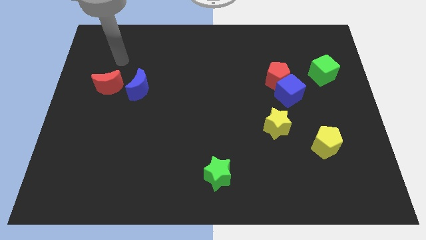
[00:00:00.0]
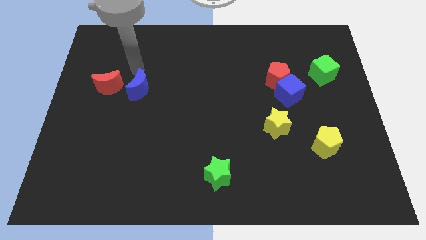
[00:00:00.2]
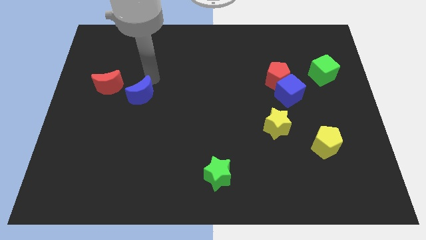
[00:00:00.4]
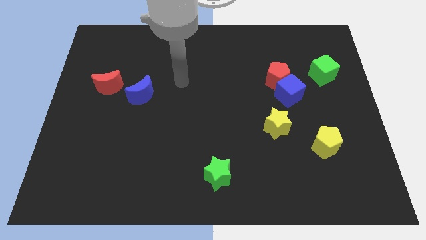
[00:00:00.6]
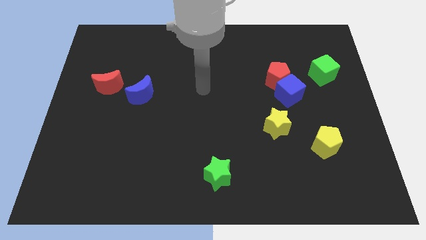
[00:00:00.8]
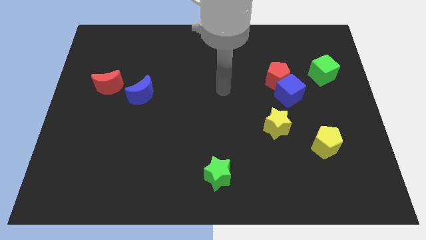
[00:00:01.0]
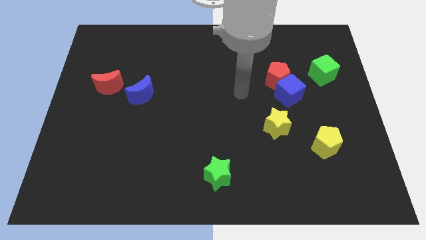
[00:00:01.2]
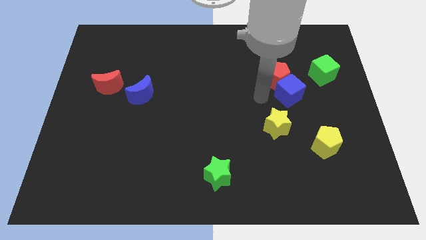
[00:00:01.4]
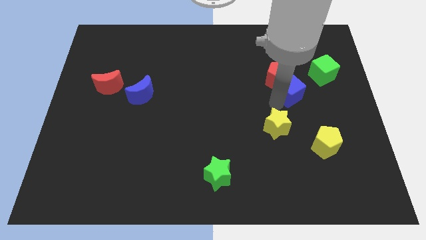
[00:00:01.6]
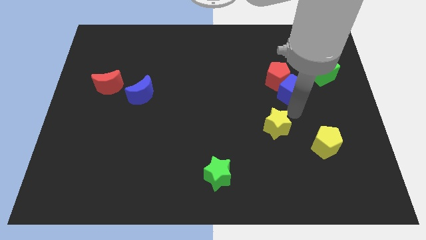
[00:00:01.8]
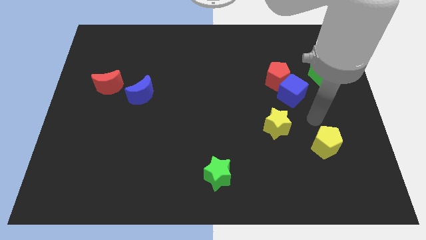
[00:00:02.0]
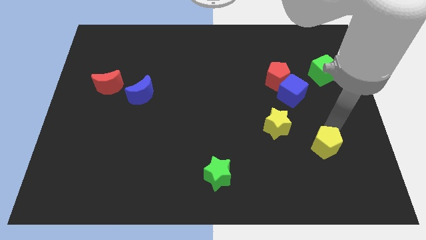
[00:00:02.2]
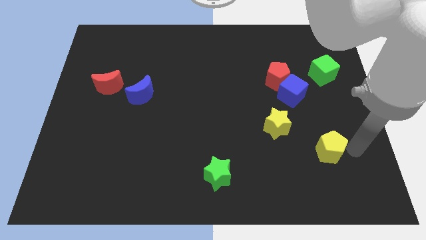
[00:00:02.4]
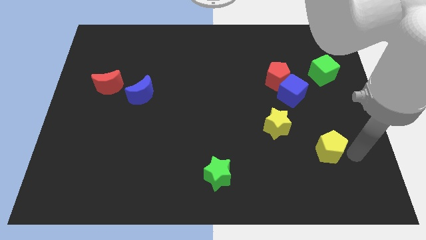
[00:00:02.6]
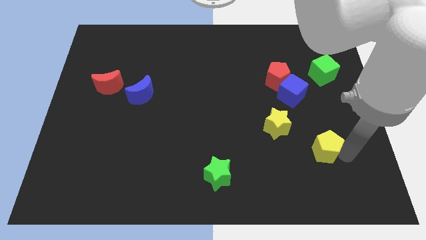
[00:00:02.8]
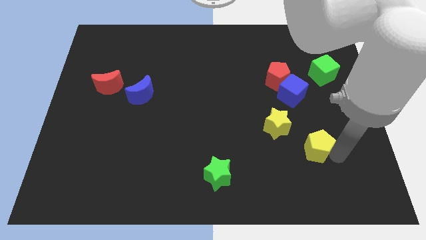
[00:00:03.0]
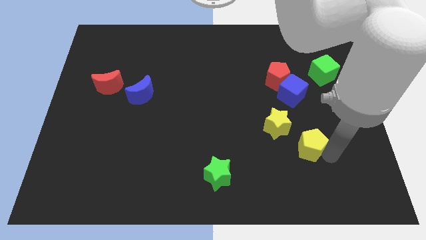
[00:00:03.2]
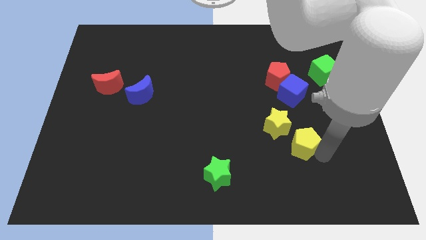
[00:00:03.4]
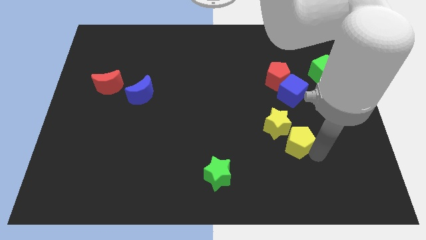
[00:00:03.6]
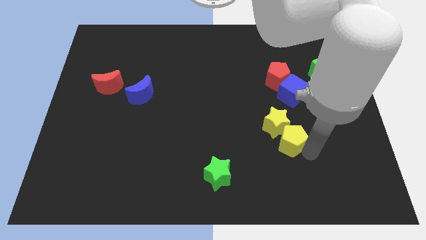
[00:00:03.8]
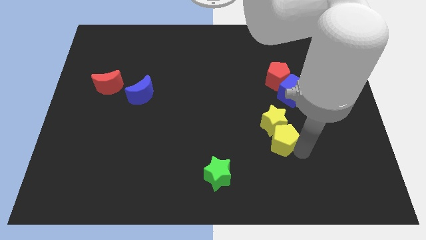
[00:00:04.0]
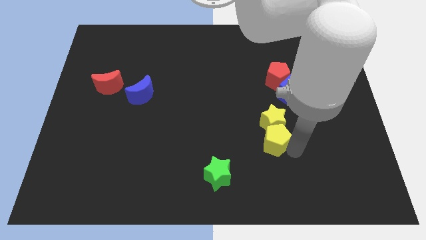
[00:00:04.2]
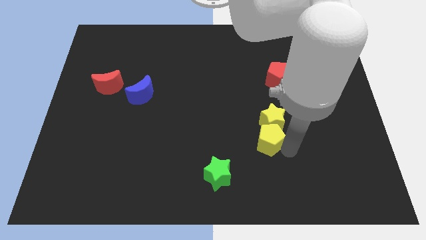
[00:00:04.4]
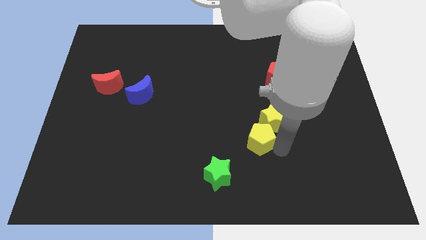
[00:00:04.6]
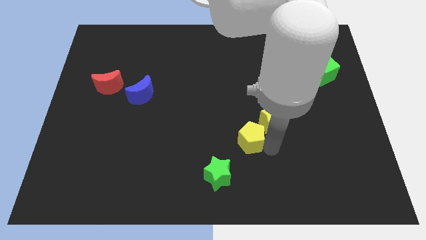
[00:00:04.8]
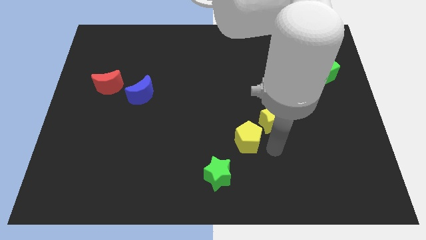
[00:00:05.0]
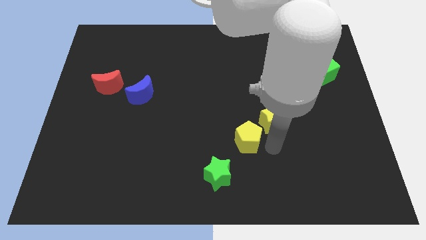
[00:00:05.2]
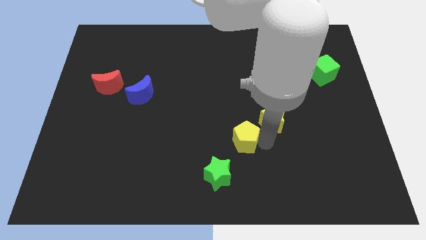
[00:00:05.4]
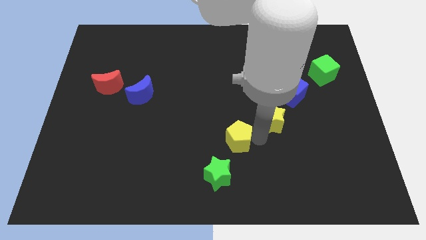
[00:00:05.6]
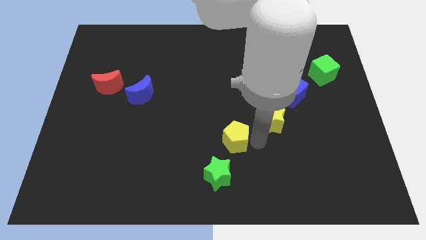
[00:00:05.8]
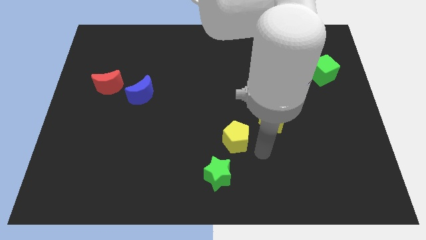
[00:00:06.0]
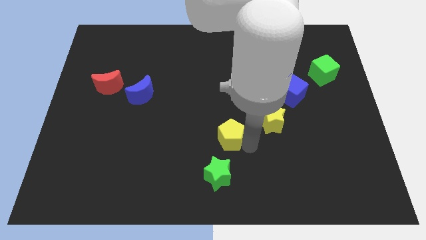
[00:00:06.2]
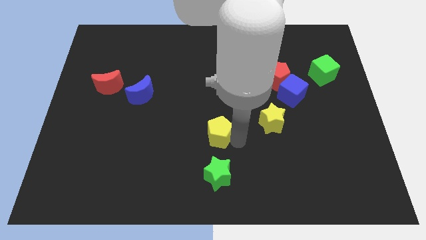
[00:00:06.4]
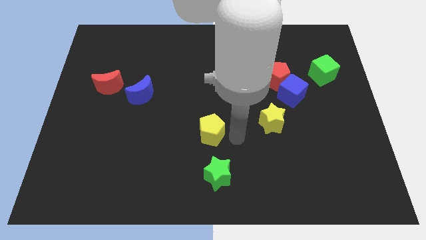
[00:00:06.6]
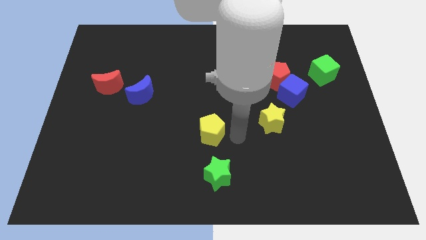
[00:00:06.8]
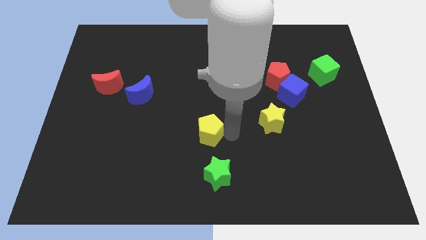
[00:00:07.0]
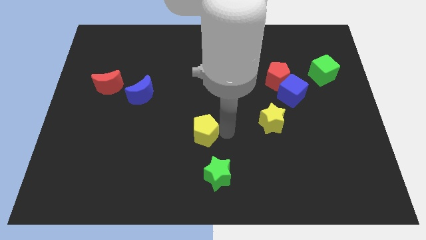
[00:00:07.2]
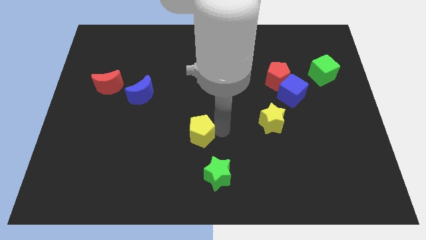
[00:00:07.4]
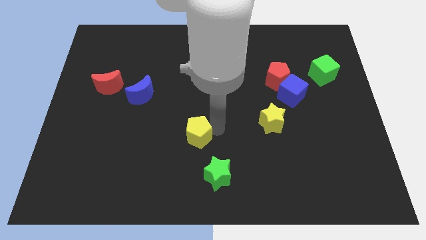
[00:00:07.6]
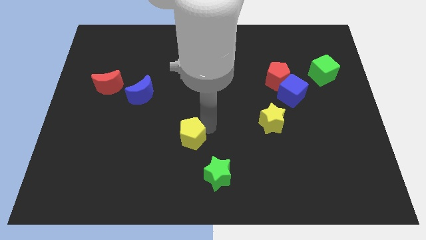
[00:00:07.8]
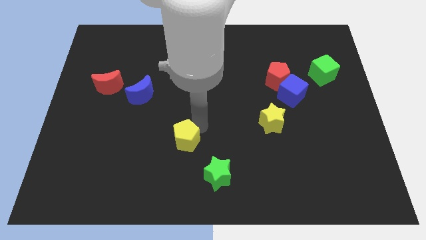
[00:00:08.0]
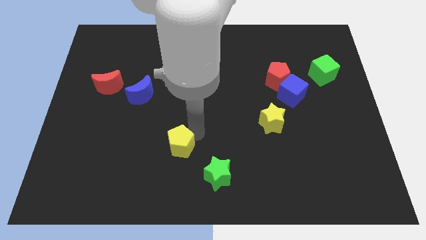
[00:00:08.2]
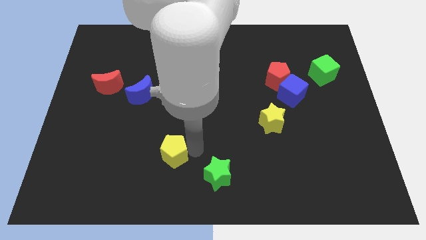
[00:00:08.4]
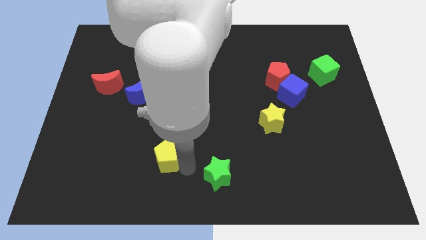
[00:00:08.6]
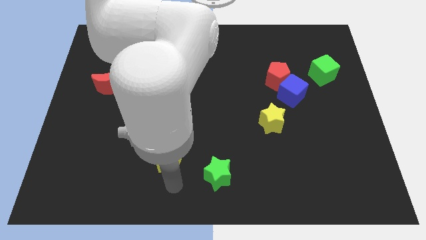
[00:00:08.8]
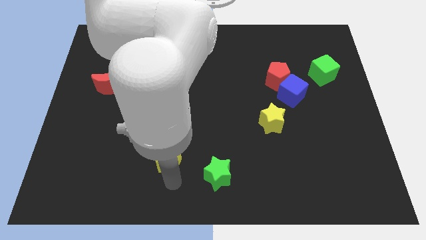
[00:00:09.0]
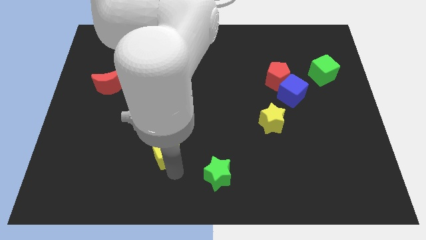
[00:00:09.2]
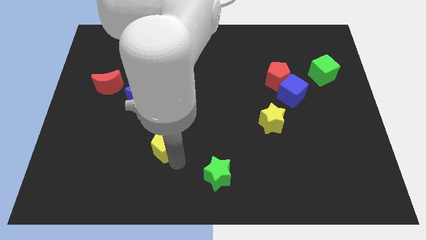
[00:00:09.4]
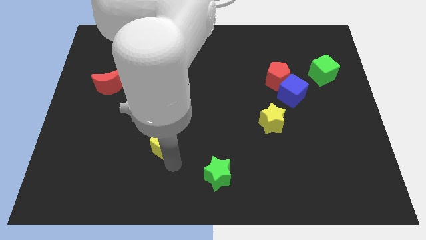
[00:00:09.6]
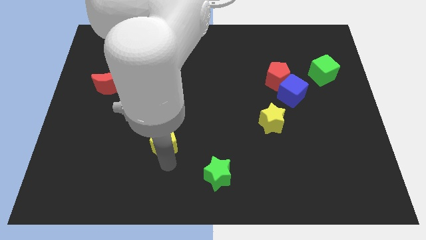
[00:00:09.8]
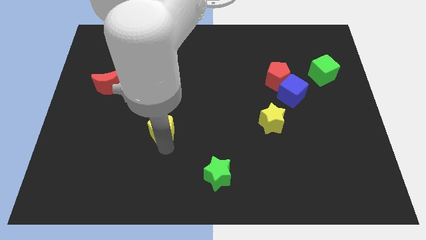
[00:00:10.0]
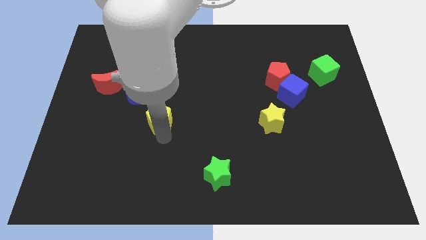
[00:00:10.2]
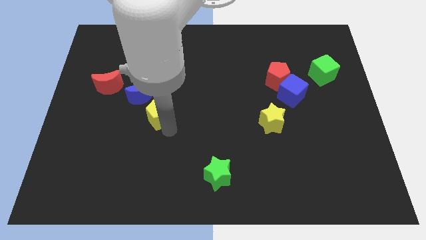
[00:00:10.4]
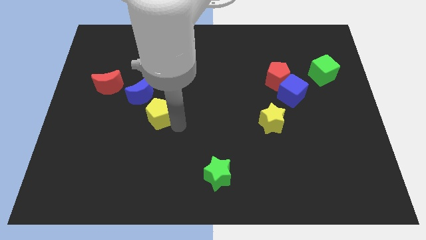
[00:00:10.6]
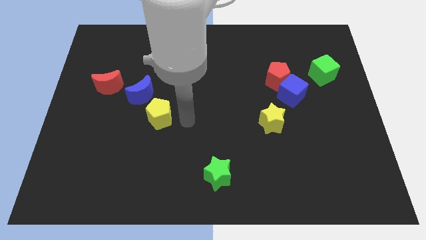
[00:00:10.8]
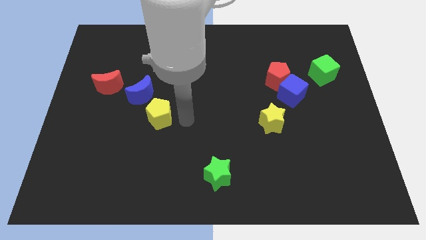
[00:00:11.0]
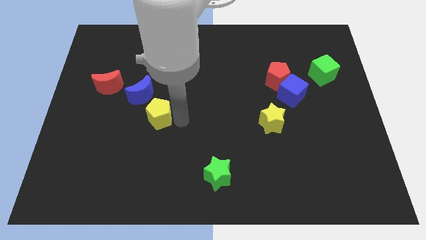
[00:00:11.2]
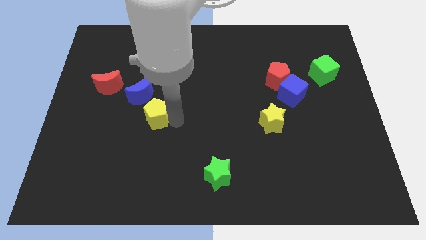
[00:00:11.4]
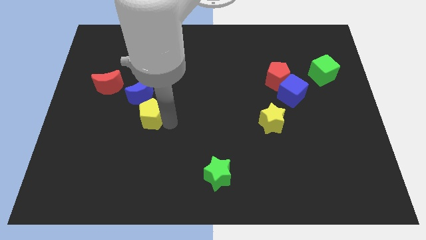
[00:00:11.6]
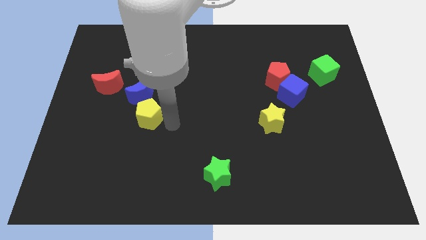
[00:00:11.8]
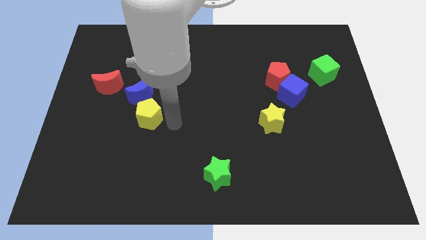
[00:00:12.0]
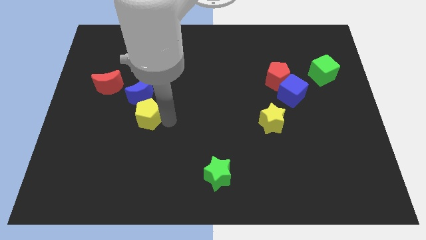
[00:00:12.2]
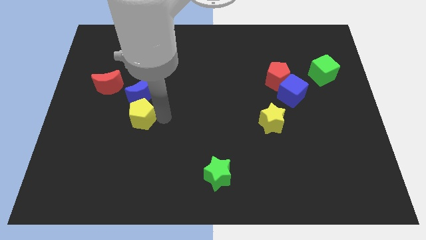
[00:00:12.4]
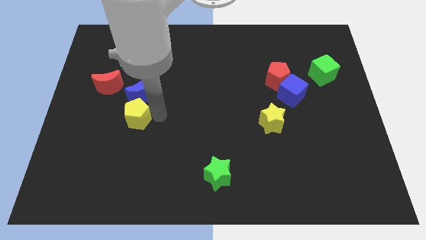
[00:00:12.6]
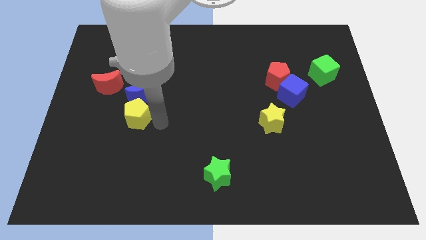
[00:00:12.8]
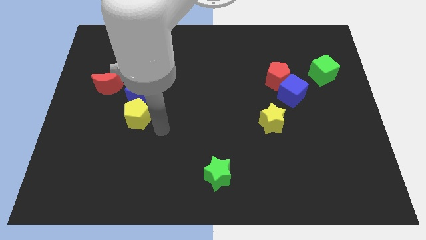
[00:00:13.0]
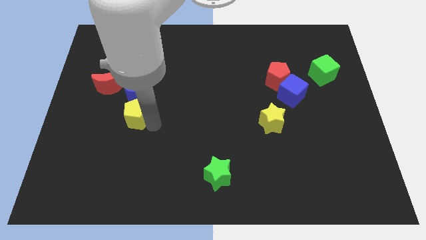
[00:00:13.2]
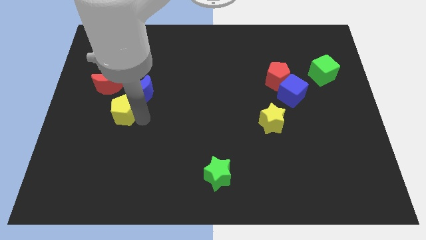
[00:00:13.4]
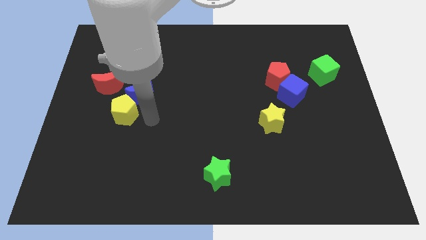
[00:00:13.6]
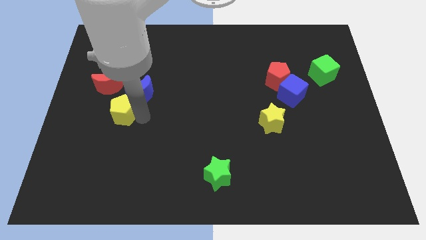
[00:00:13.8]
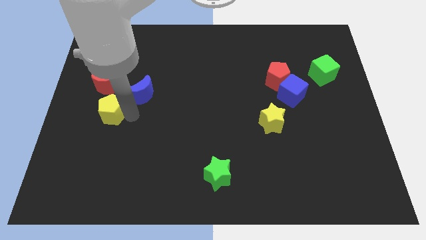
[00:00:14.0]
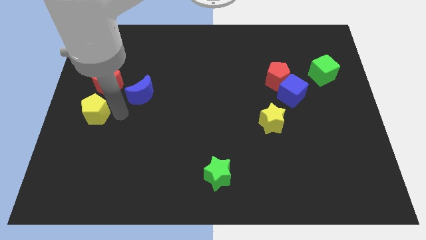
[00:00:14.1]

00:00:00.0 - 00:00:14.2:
slide the yellow pentagon to the left side of the board
